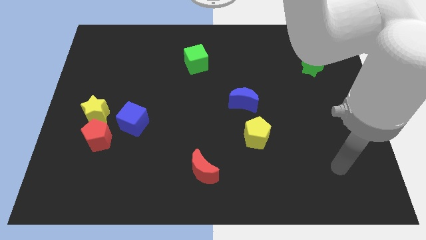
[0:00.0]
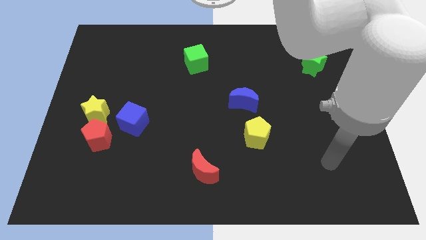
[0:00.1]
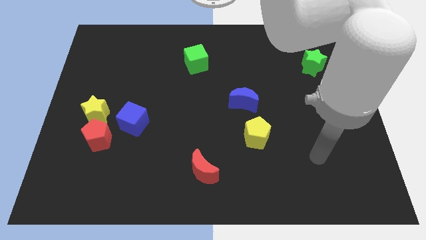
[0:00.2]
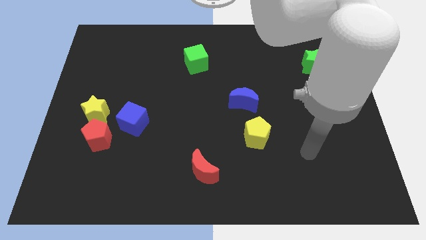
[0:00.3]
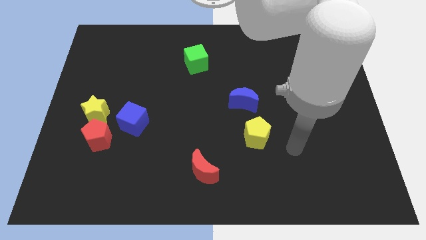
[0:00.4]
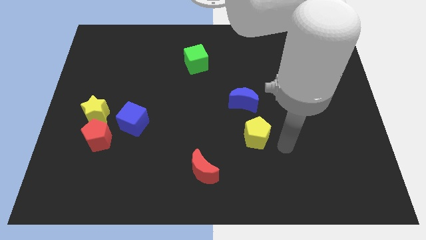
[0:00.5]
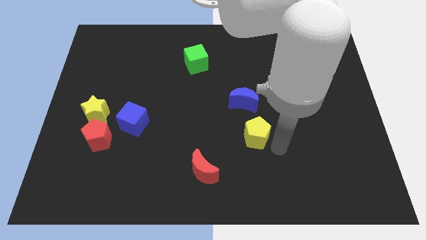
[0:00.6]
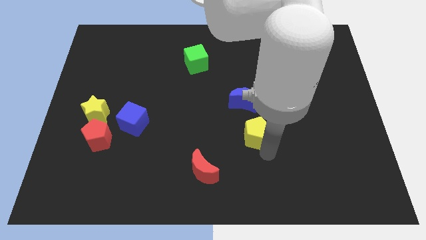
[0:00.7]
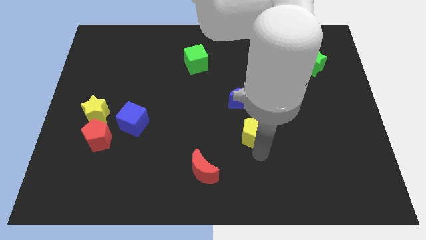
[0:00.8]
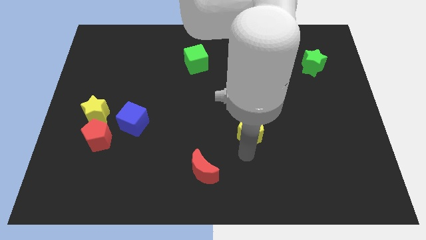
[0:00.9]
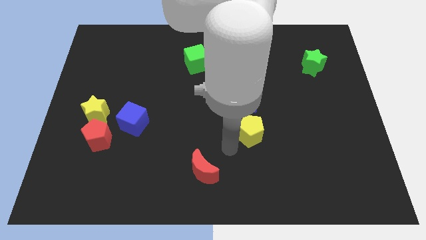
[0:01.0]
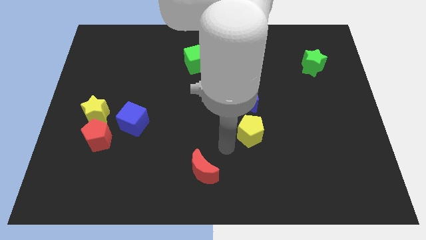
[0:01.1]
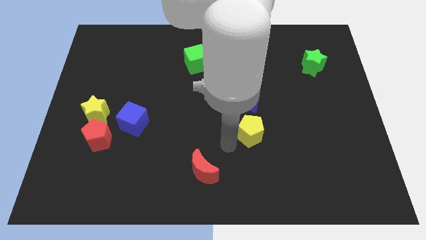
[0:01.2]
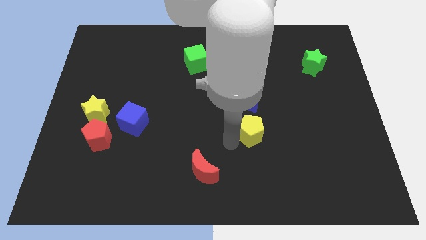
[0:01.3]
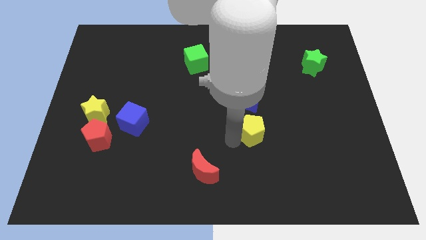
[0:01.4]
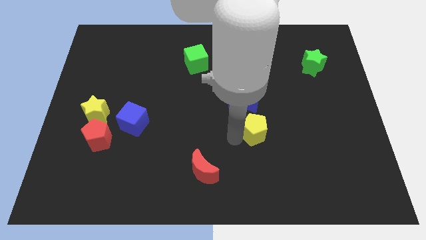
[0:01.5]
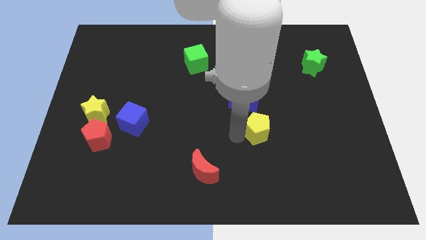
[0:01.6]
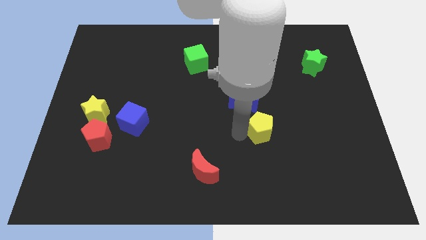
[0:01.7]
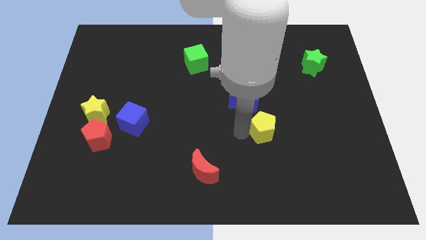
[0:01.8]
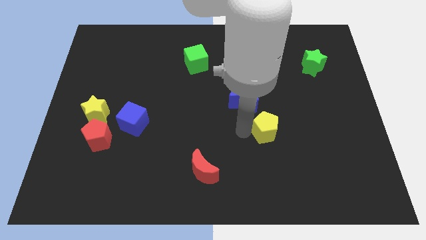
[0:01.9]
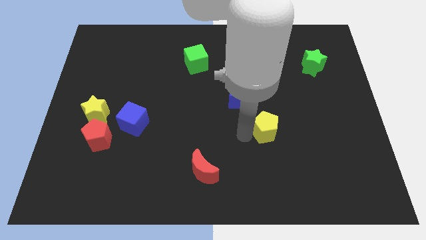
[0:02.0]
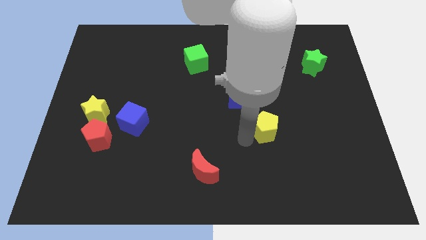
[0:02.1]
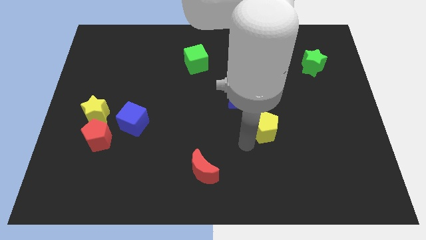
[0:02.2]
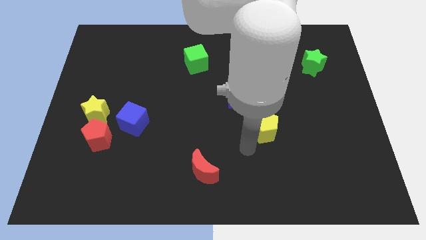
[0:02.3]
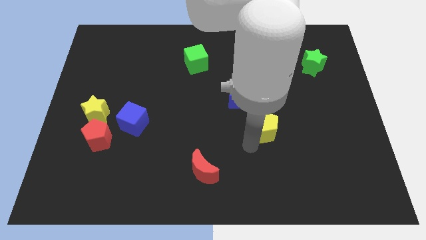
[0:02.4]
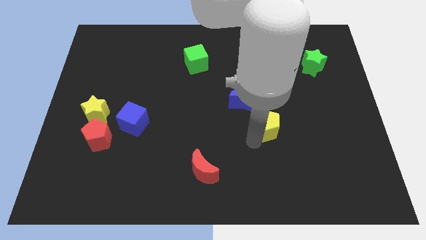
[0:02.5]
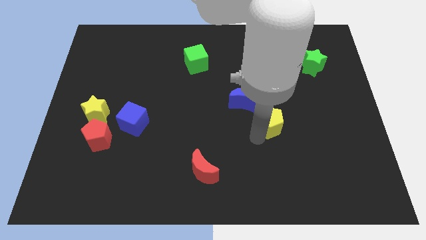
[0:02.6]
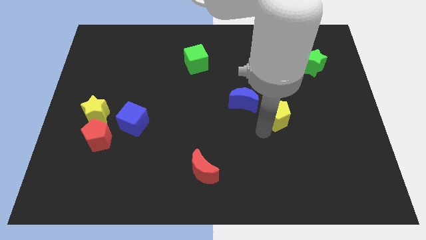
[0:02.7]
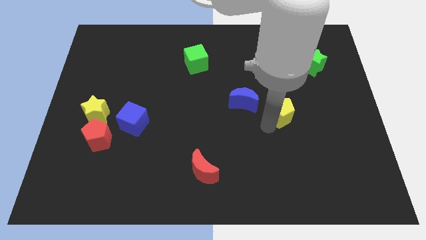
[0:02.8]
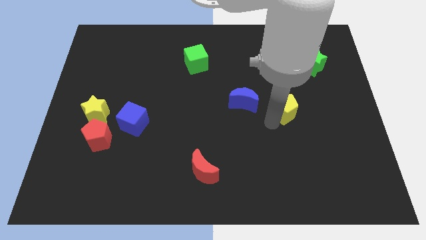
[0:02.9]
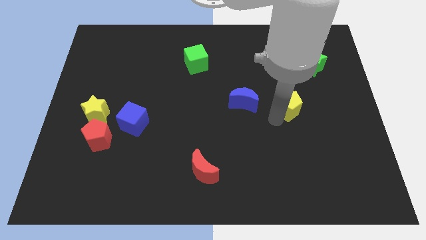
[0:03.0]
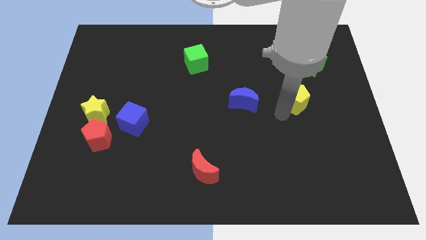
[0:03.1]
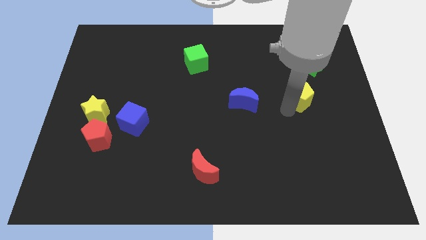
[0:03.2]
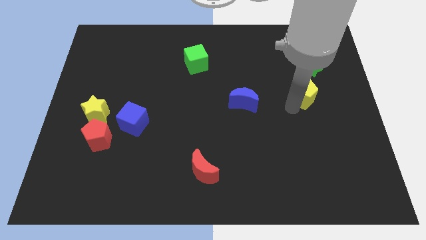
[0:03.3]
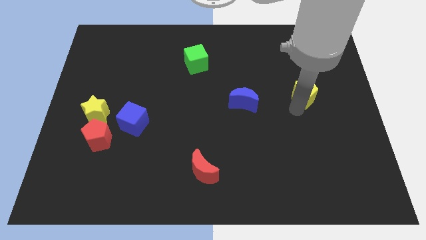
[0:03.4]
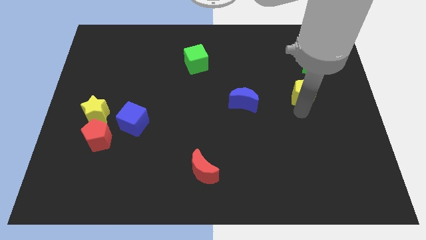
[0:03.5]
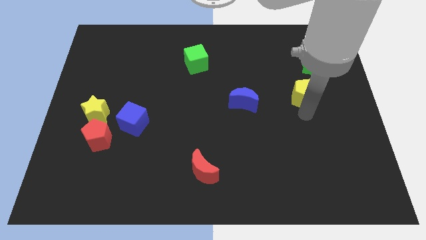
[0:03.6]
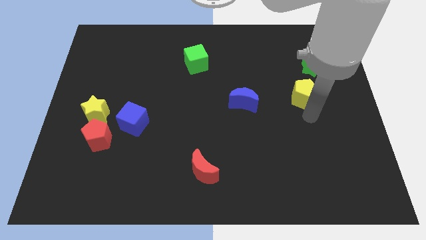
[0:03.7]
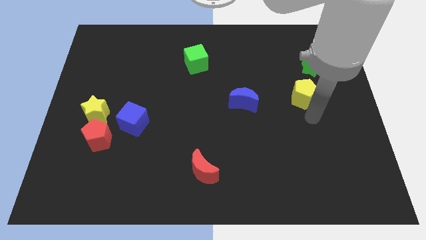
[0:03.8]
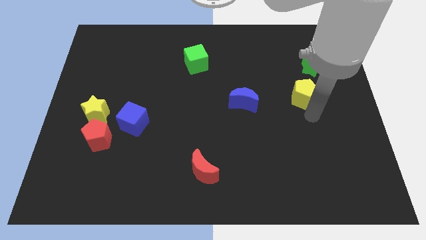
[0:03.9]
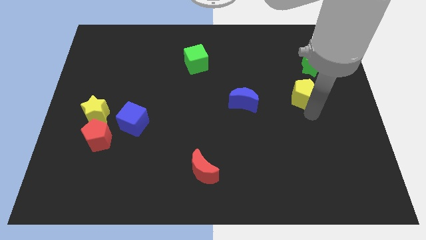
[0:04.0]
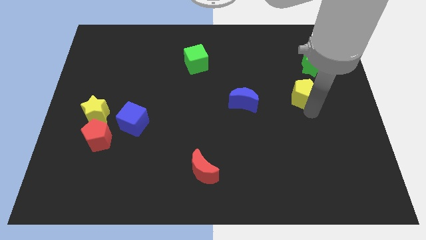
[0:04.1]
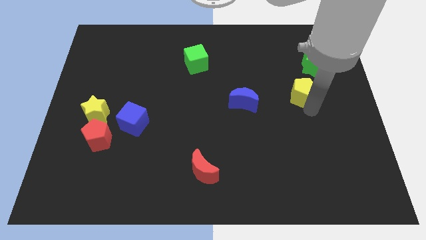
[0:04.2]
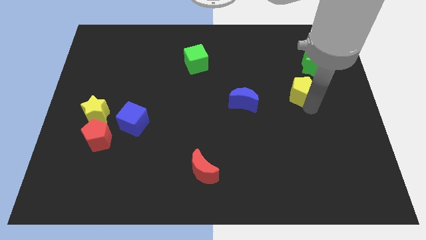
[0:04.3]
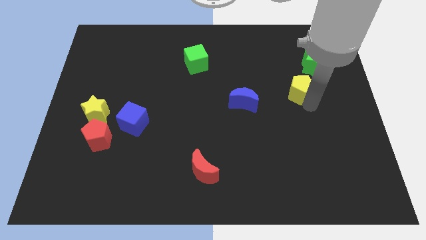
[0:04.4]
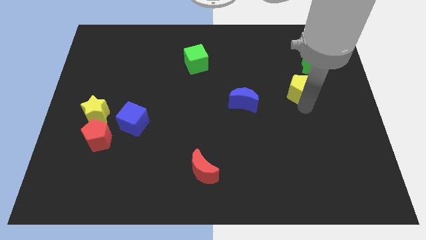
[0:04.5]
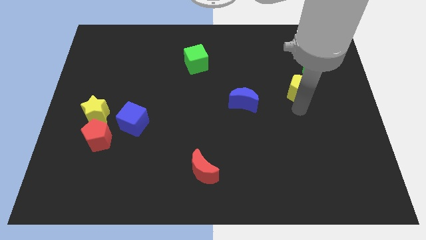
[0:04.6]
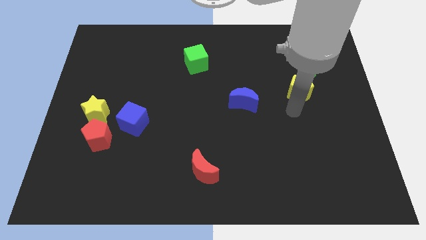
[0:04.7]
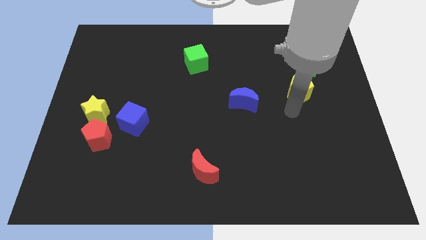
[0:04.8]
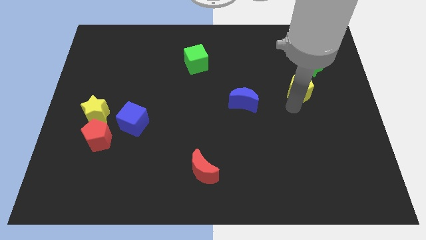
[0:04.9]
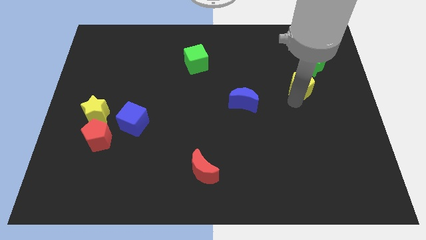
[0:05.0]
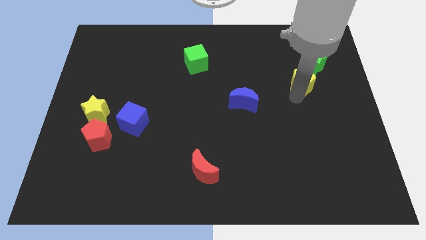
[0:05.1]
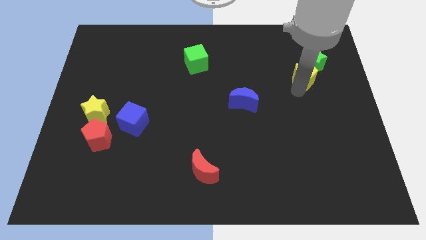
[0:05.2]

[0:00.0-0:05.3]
move the yellow pentagon next to the green star

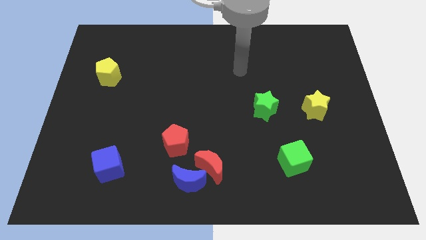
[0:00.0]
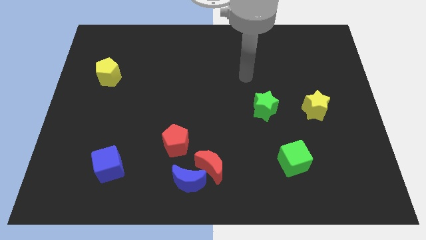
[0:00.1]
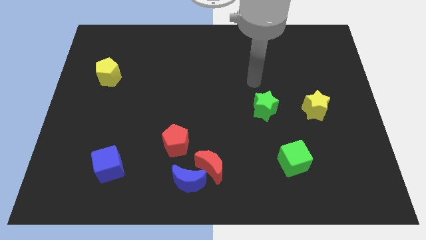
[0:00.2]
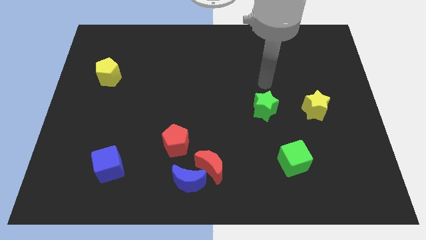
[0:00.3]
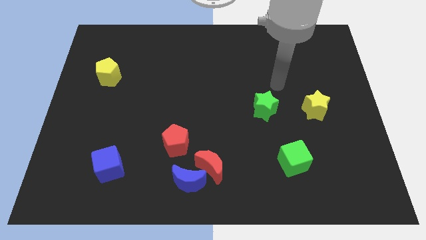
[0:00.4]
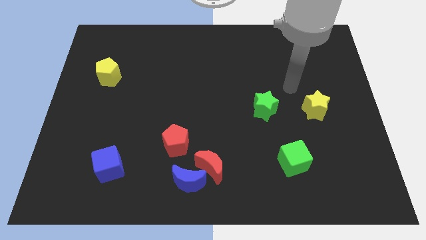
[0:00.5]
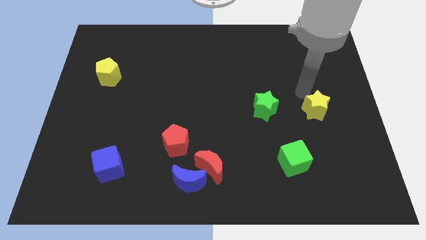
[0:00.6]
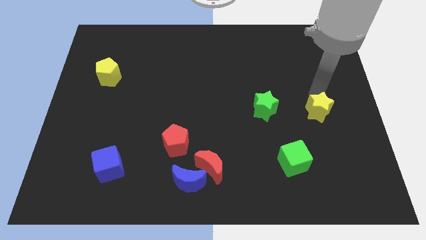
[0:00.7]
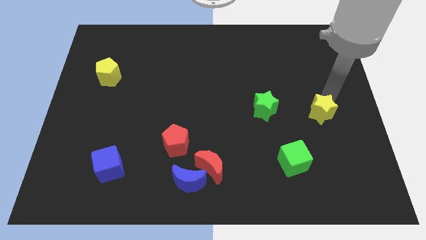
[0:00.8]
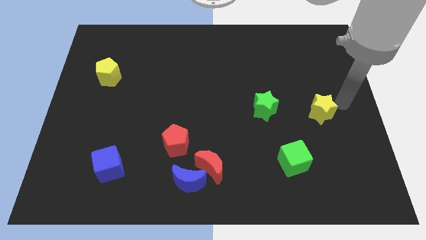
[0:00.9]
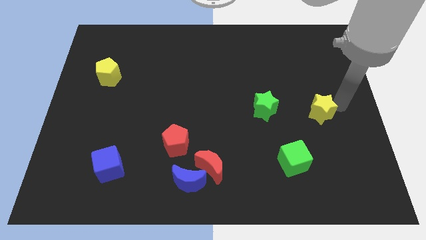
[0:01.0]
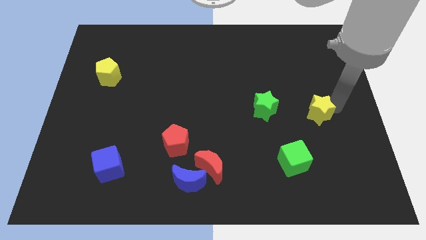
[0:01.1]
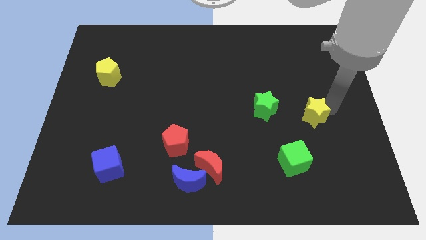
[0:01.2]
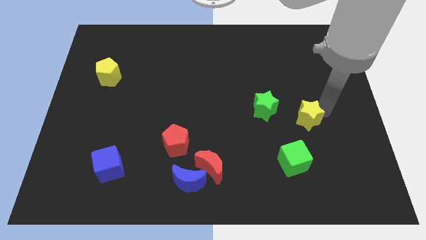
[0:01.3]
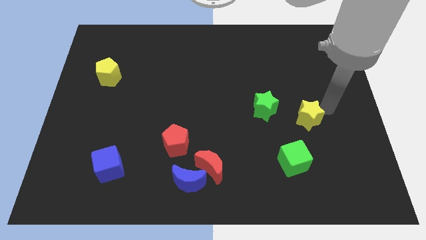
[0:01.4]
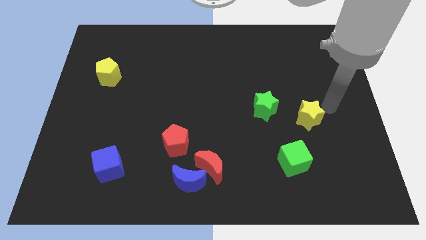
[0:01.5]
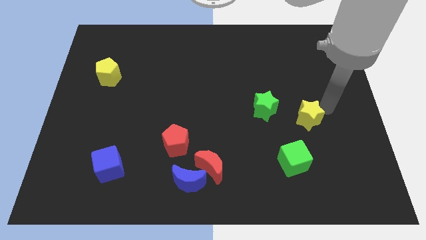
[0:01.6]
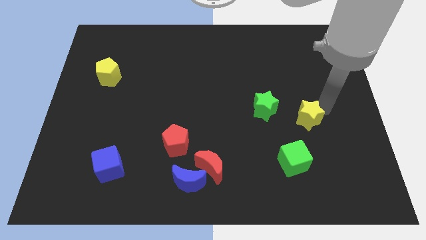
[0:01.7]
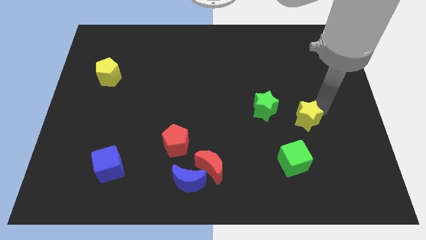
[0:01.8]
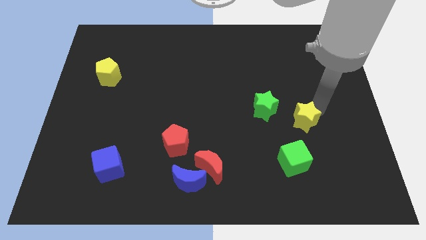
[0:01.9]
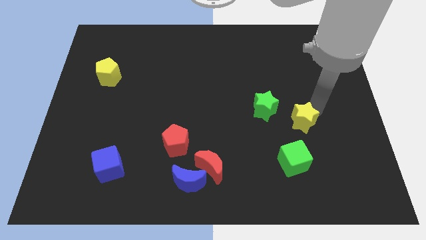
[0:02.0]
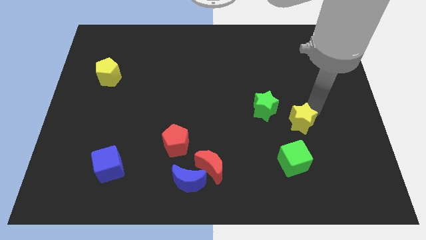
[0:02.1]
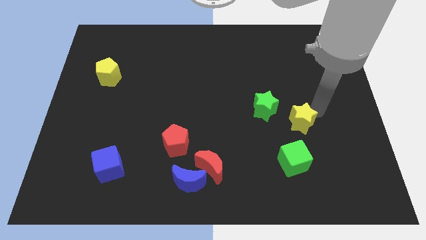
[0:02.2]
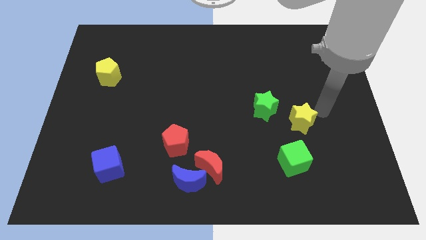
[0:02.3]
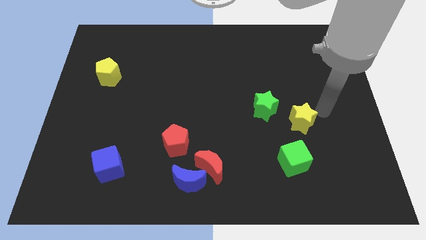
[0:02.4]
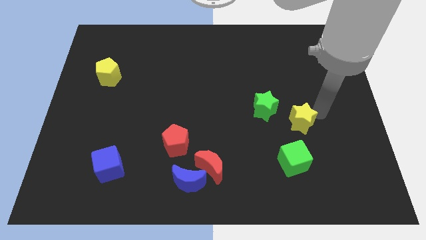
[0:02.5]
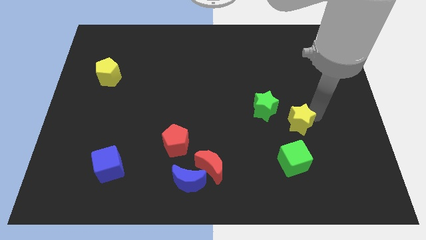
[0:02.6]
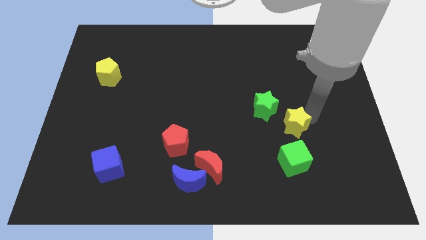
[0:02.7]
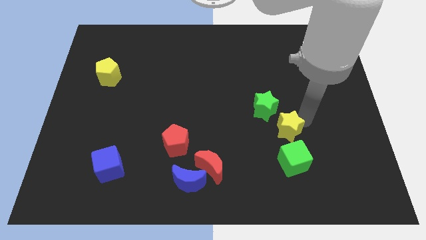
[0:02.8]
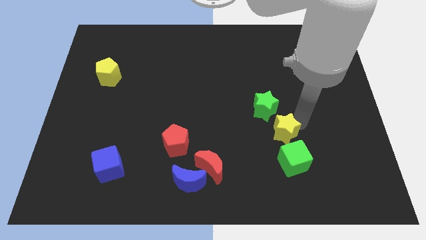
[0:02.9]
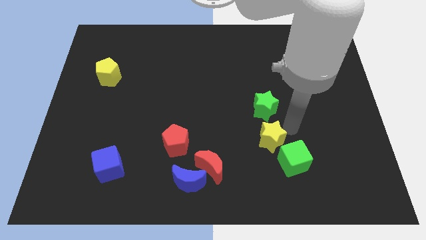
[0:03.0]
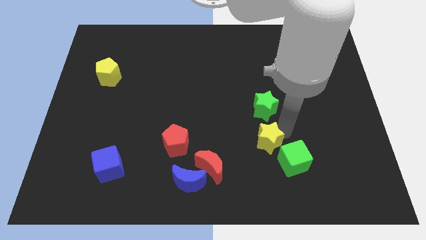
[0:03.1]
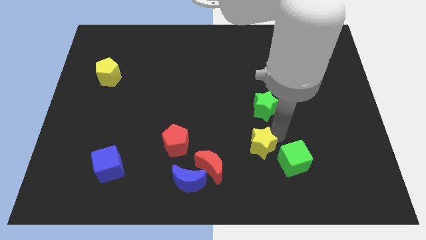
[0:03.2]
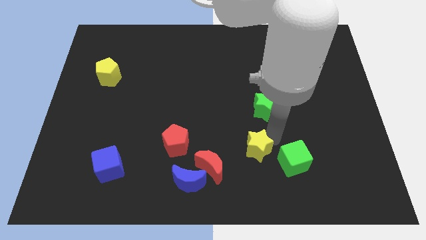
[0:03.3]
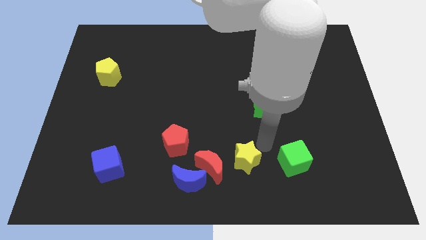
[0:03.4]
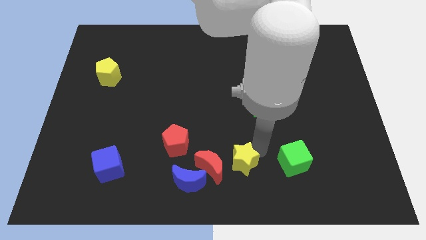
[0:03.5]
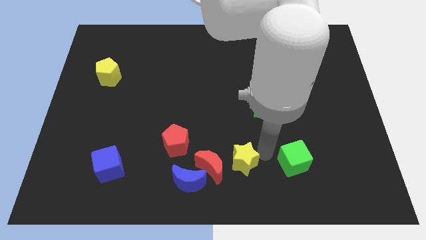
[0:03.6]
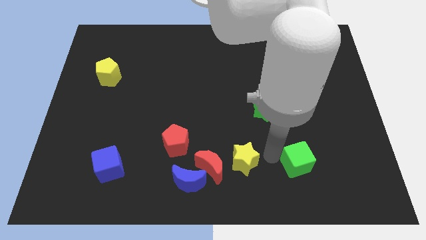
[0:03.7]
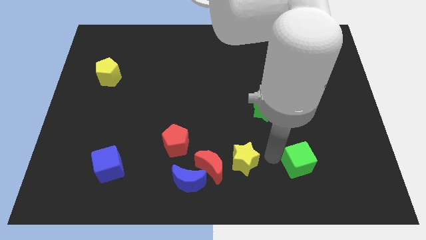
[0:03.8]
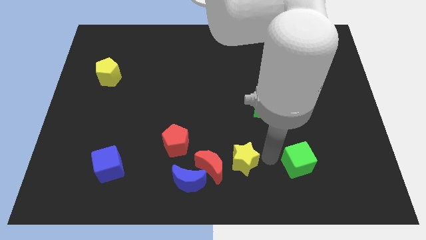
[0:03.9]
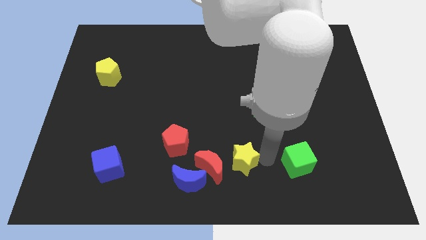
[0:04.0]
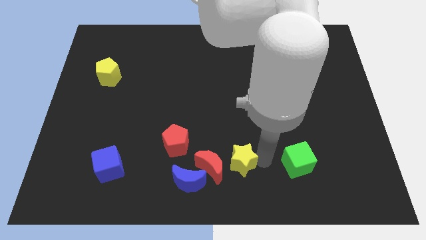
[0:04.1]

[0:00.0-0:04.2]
push the yellow star close to the red moon
